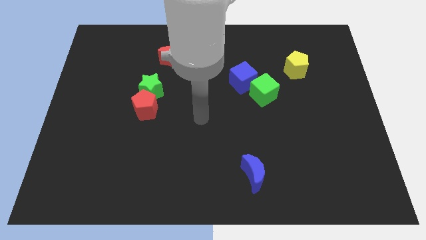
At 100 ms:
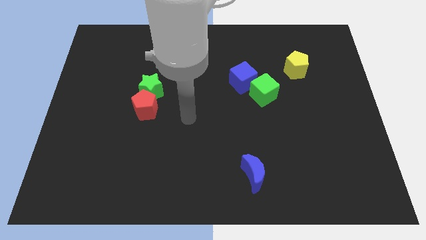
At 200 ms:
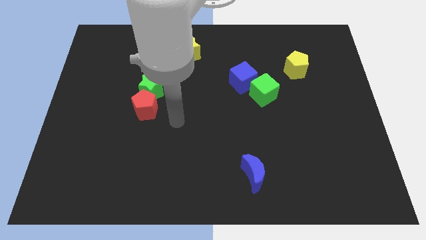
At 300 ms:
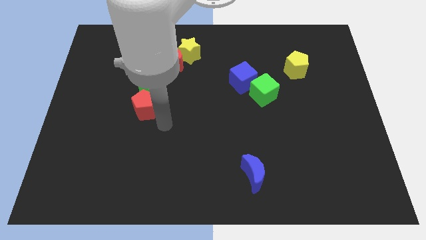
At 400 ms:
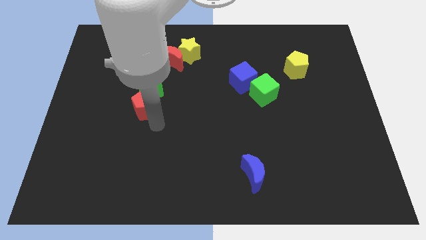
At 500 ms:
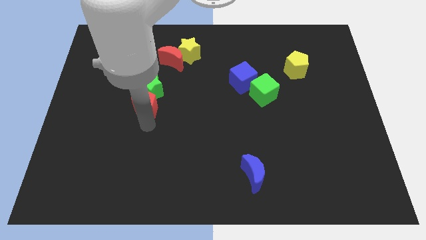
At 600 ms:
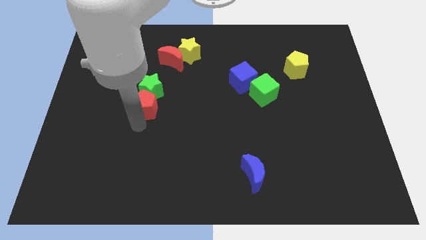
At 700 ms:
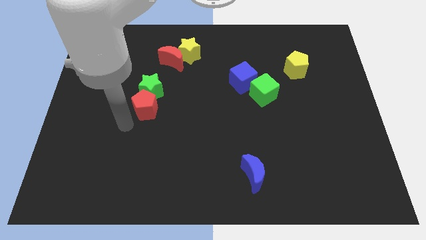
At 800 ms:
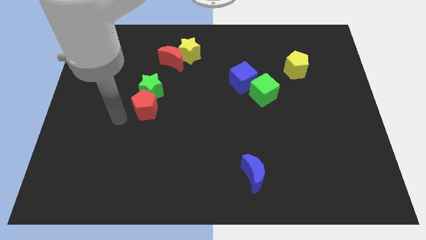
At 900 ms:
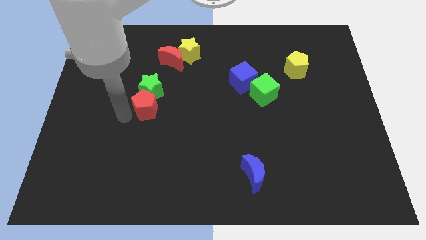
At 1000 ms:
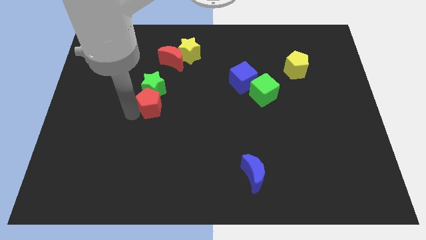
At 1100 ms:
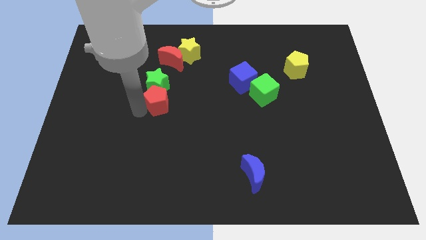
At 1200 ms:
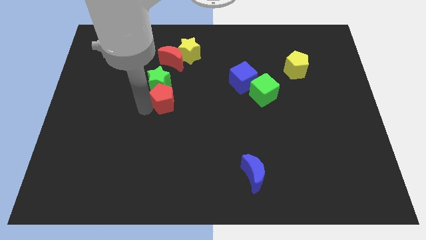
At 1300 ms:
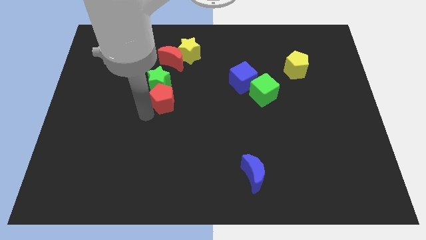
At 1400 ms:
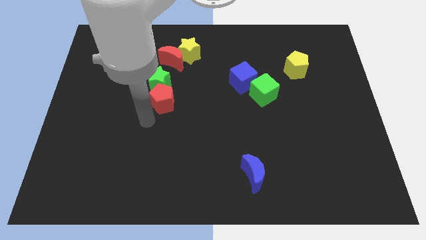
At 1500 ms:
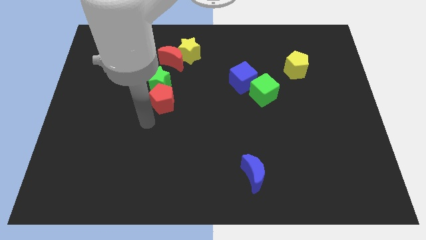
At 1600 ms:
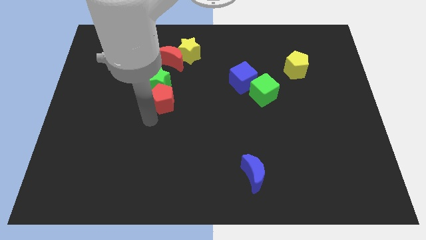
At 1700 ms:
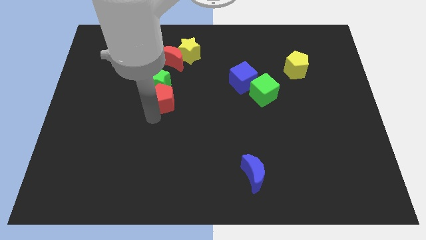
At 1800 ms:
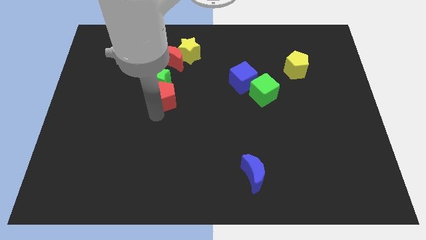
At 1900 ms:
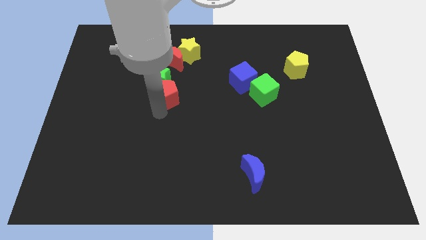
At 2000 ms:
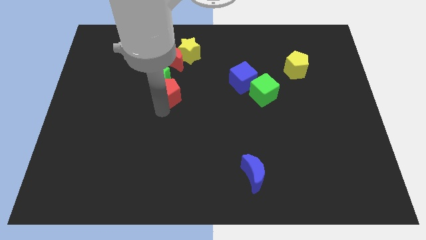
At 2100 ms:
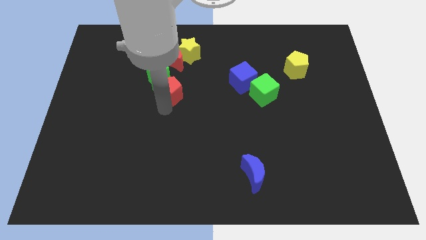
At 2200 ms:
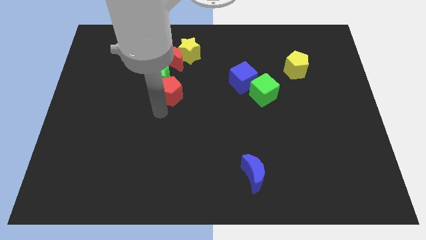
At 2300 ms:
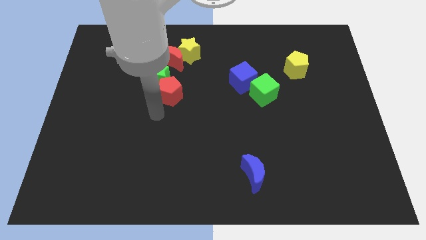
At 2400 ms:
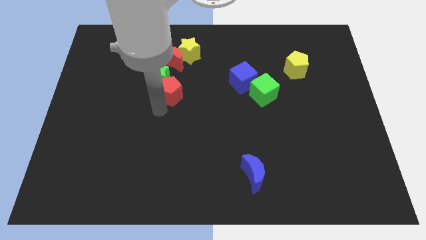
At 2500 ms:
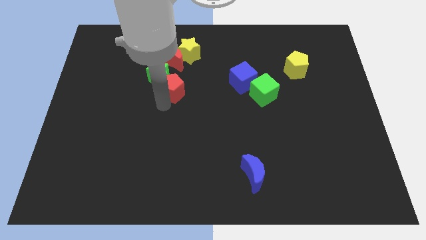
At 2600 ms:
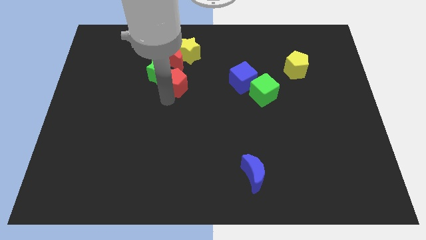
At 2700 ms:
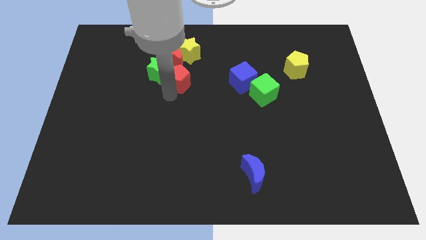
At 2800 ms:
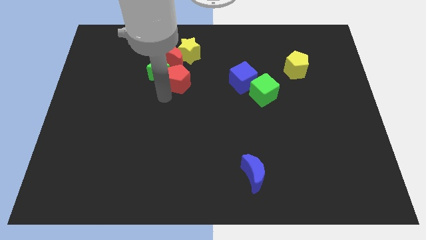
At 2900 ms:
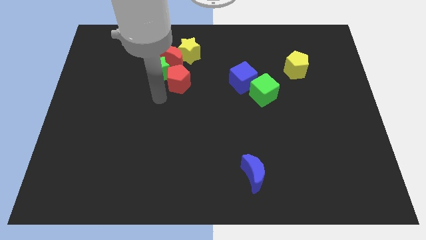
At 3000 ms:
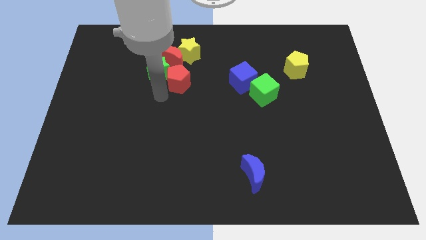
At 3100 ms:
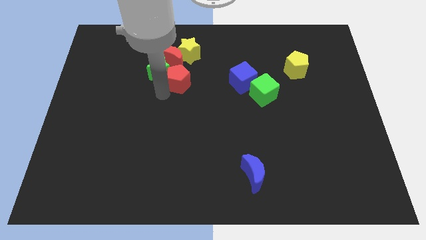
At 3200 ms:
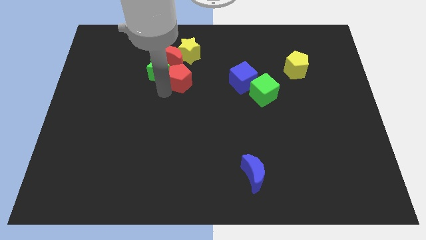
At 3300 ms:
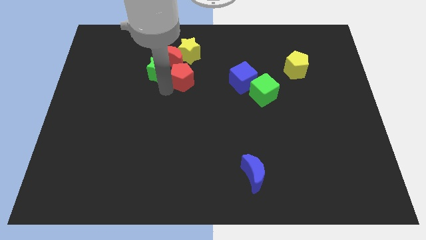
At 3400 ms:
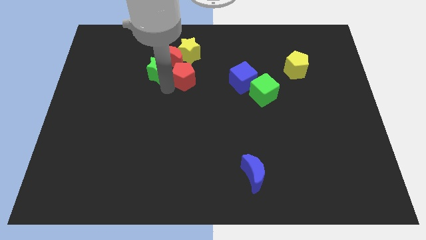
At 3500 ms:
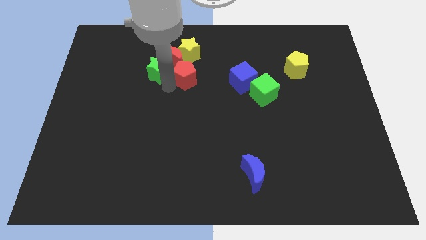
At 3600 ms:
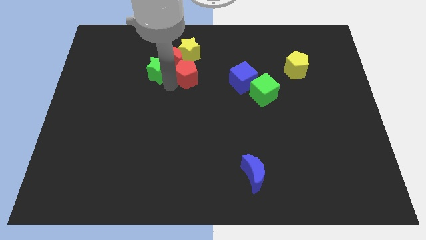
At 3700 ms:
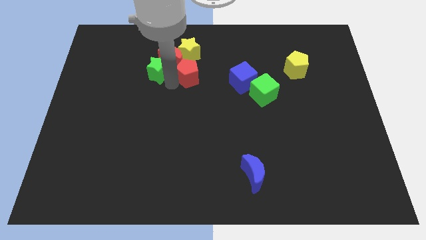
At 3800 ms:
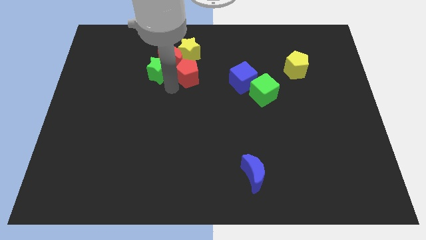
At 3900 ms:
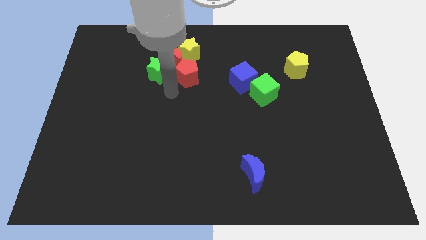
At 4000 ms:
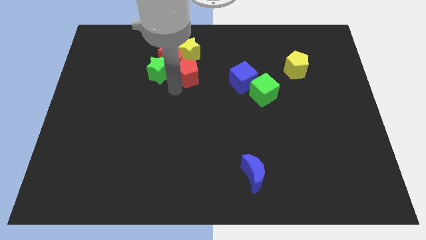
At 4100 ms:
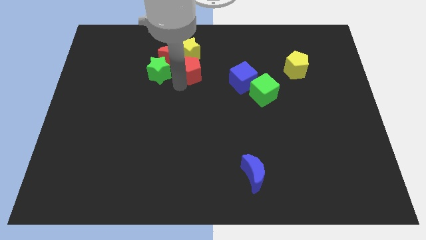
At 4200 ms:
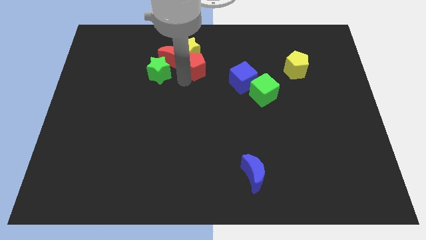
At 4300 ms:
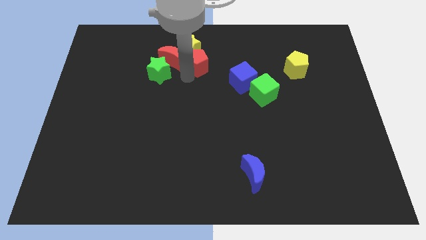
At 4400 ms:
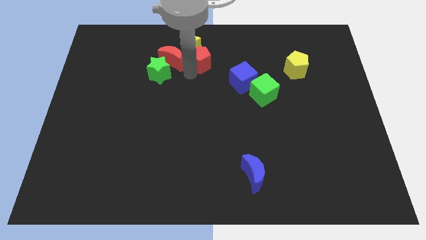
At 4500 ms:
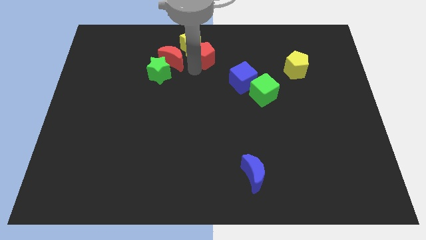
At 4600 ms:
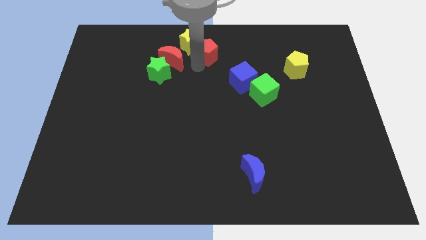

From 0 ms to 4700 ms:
push the red pentagon to the top side

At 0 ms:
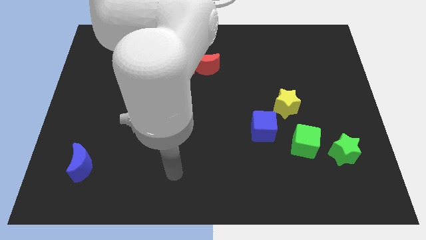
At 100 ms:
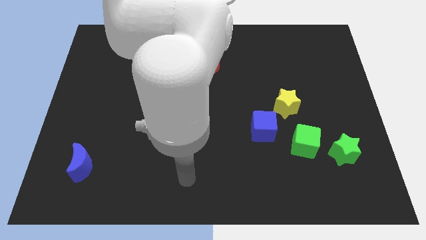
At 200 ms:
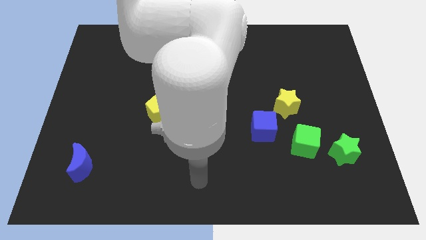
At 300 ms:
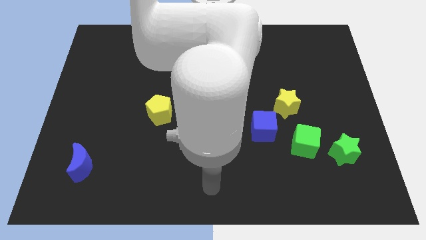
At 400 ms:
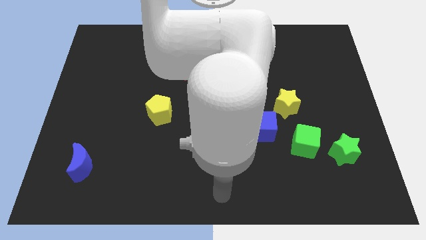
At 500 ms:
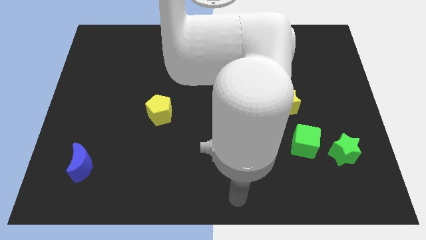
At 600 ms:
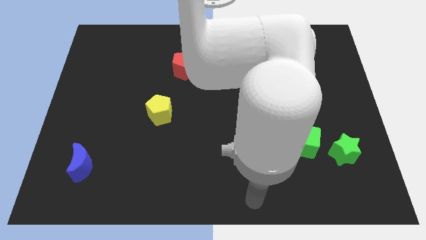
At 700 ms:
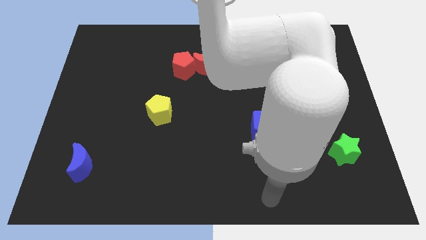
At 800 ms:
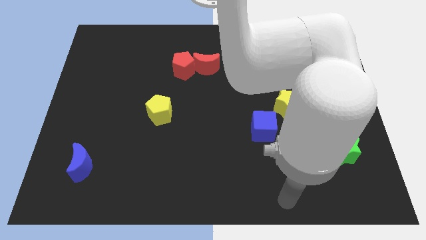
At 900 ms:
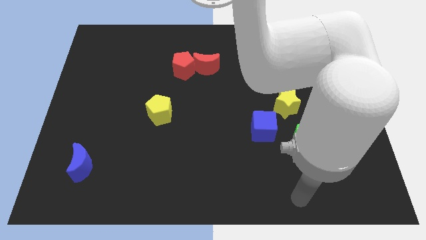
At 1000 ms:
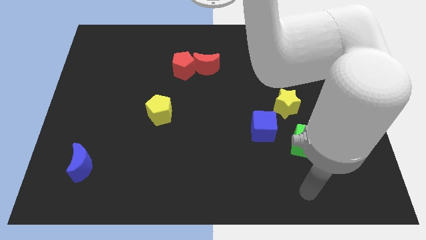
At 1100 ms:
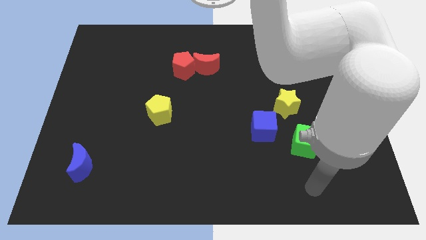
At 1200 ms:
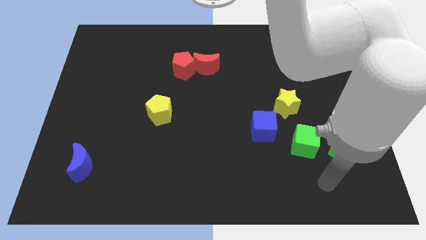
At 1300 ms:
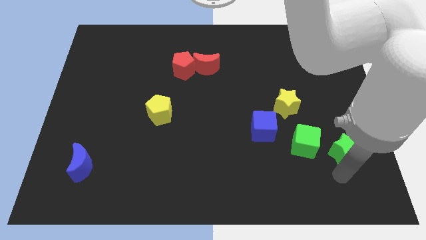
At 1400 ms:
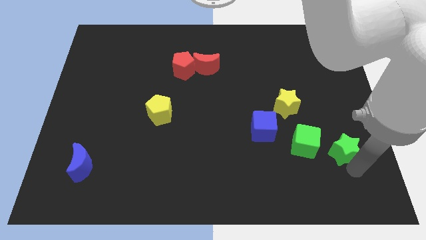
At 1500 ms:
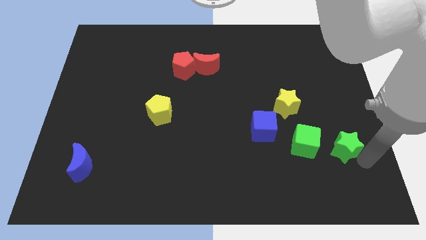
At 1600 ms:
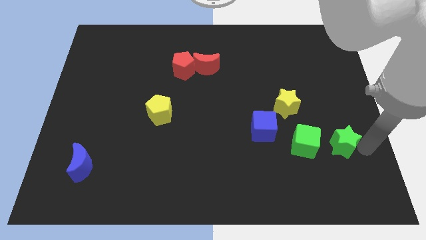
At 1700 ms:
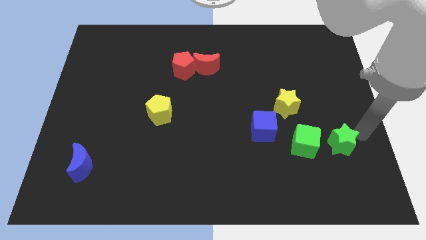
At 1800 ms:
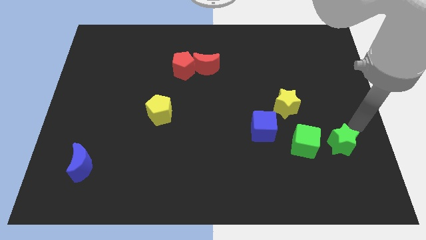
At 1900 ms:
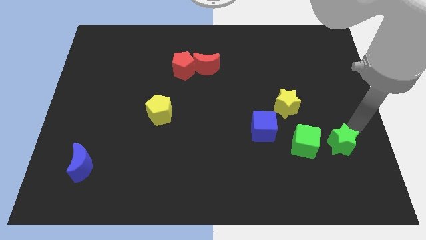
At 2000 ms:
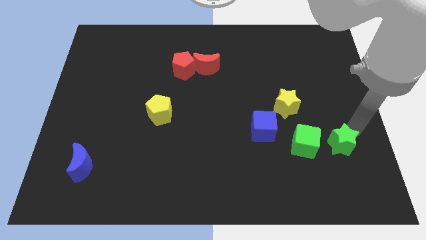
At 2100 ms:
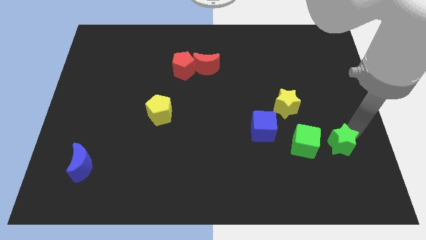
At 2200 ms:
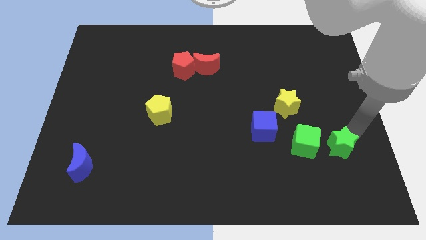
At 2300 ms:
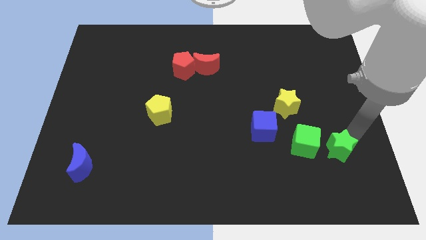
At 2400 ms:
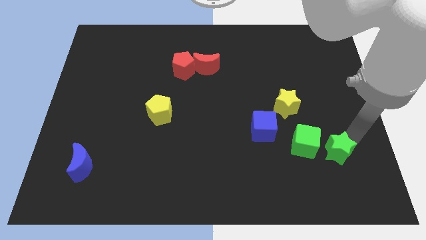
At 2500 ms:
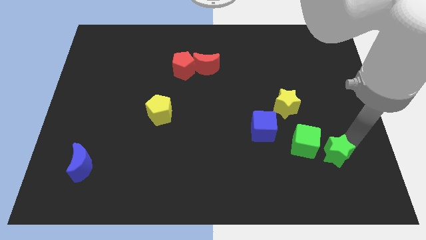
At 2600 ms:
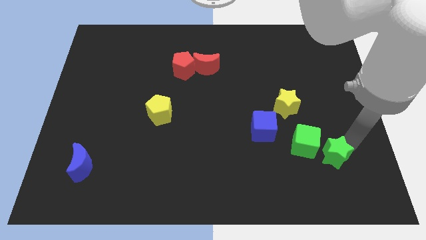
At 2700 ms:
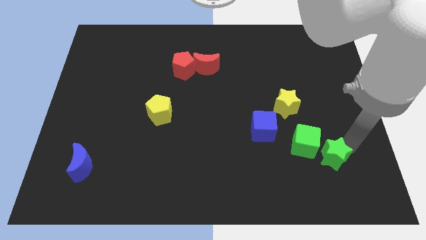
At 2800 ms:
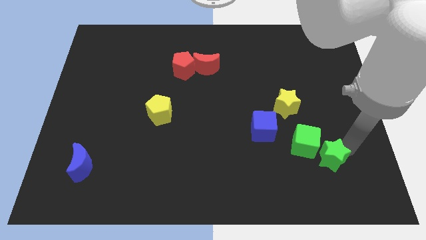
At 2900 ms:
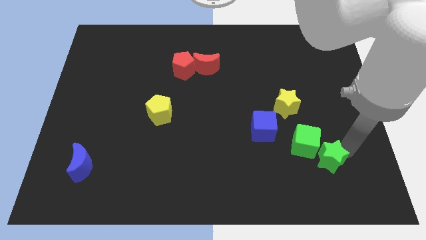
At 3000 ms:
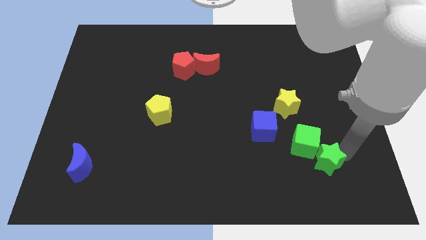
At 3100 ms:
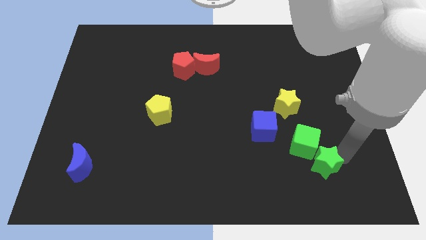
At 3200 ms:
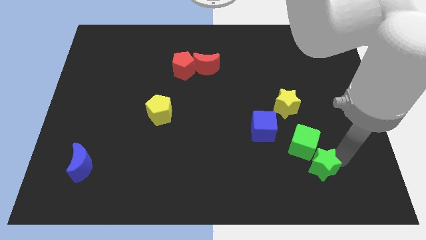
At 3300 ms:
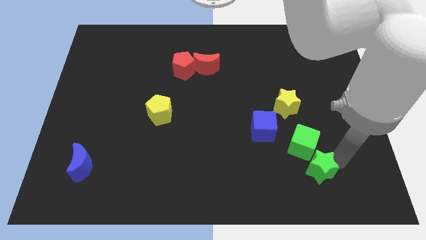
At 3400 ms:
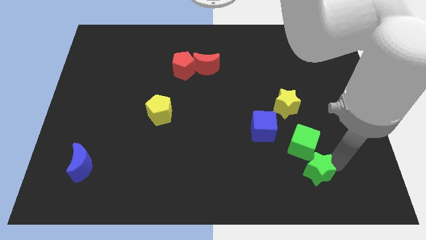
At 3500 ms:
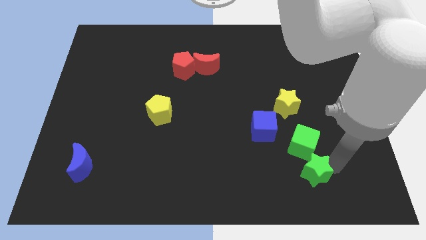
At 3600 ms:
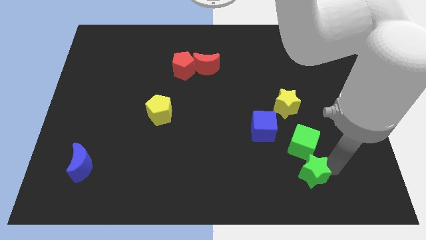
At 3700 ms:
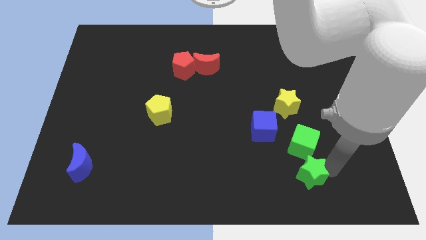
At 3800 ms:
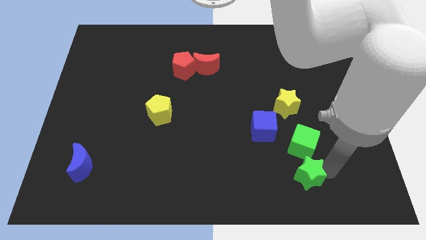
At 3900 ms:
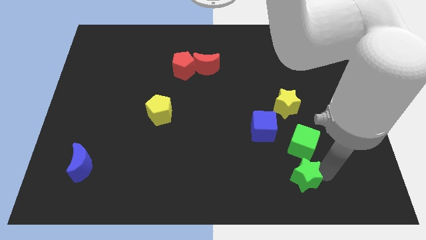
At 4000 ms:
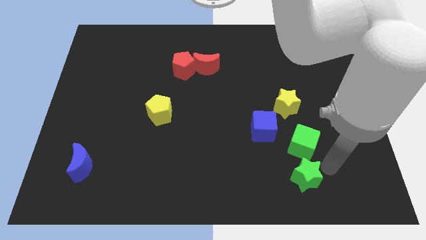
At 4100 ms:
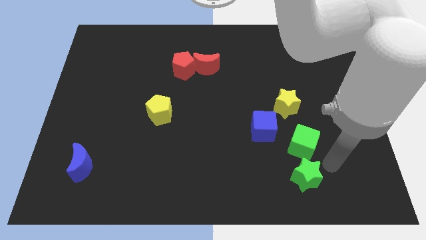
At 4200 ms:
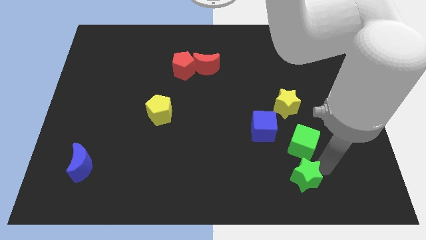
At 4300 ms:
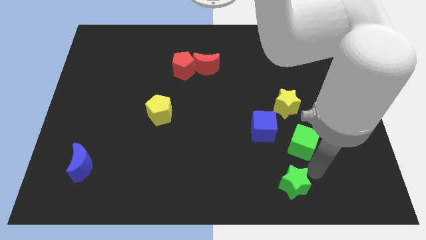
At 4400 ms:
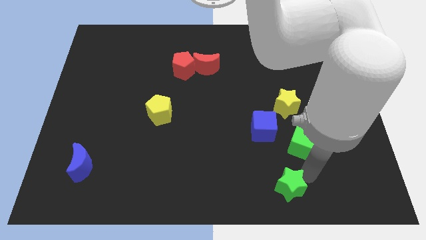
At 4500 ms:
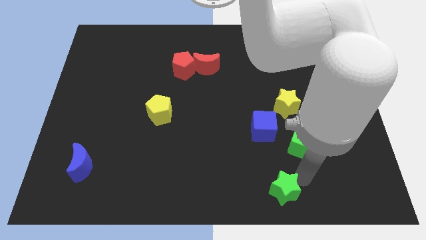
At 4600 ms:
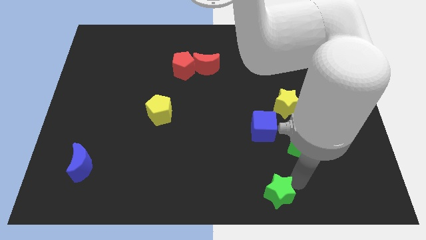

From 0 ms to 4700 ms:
put the green star to the bottom
